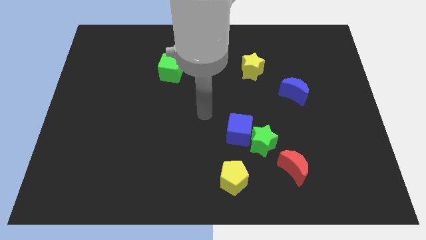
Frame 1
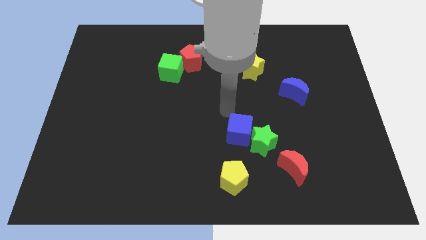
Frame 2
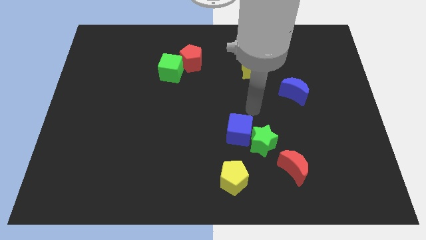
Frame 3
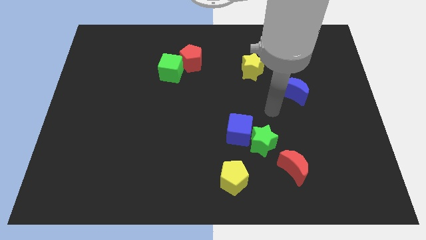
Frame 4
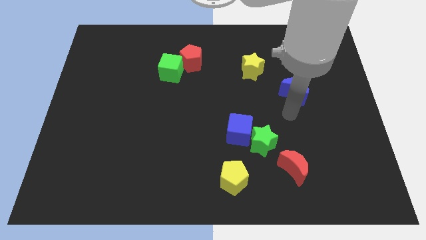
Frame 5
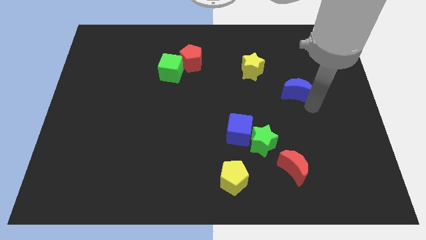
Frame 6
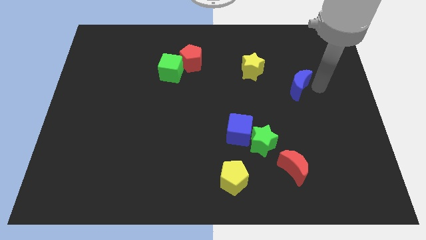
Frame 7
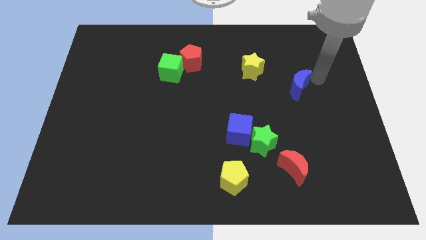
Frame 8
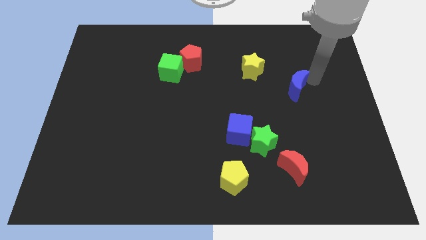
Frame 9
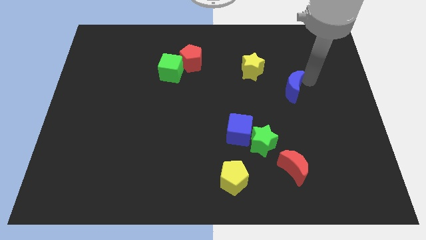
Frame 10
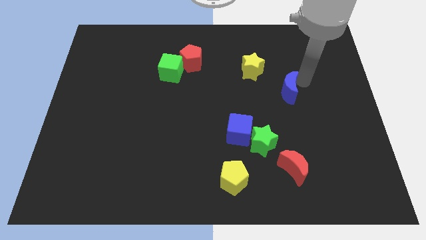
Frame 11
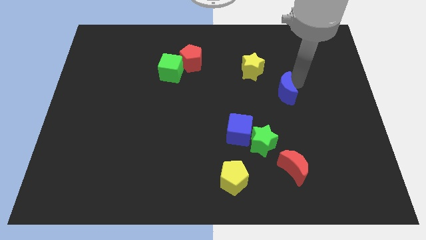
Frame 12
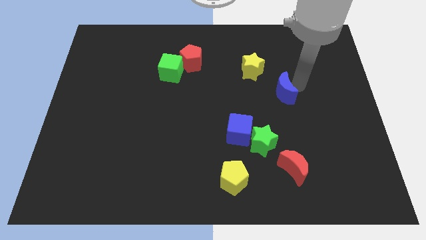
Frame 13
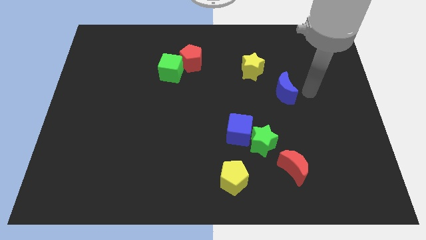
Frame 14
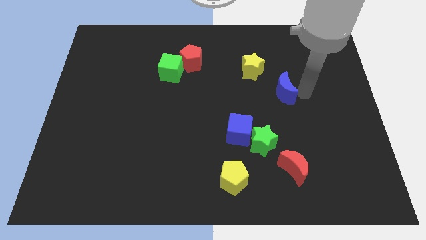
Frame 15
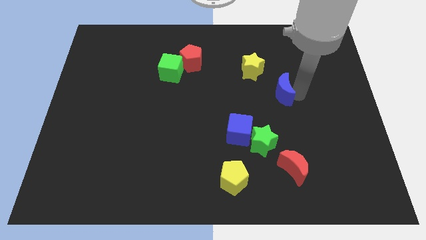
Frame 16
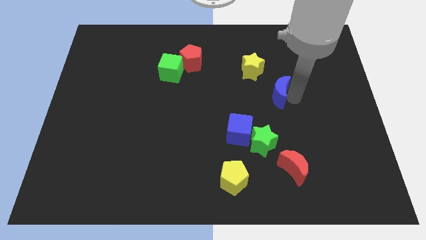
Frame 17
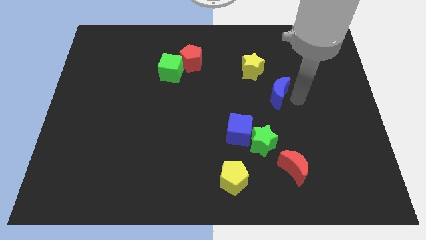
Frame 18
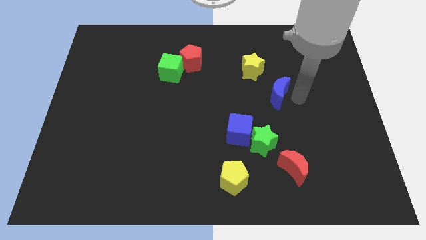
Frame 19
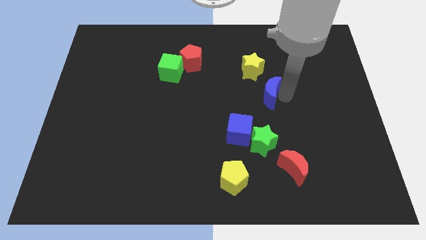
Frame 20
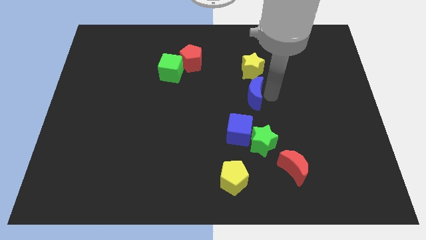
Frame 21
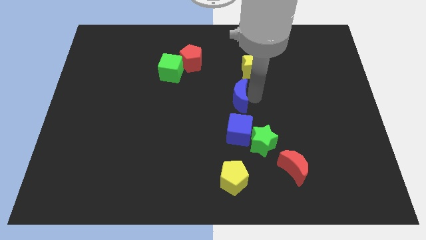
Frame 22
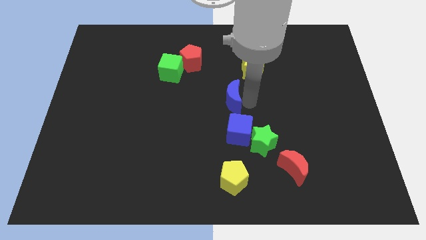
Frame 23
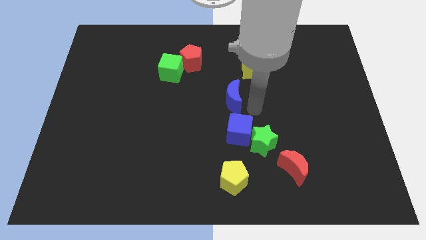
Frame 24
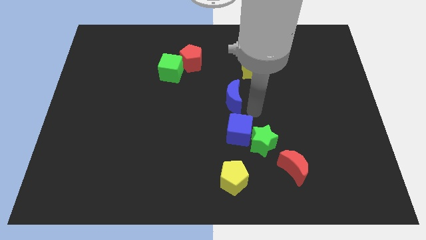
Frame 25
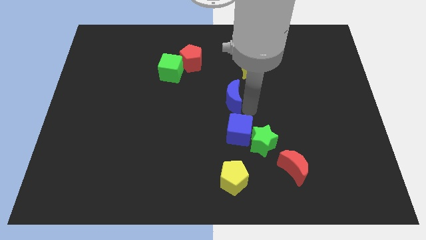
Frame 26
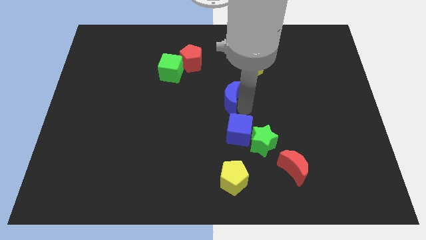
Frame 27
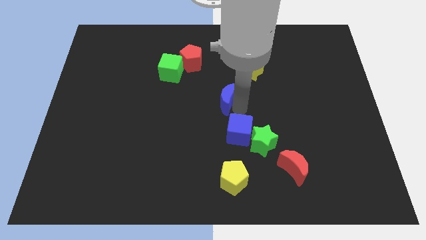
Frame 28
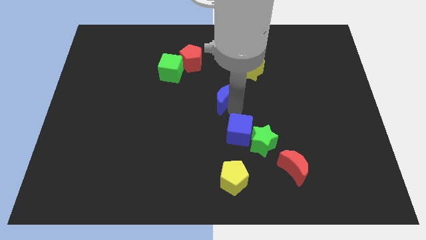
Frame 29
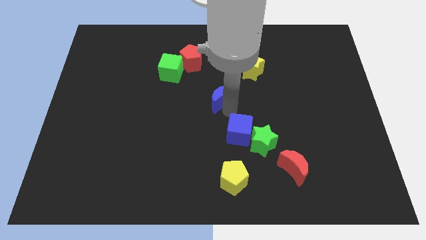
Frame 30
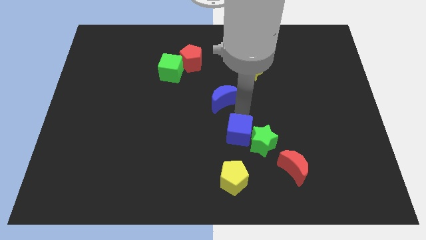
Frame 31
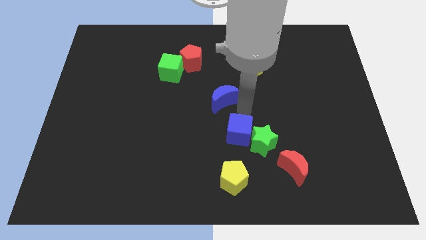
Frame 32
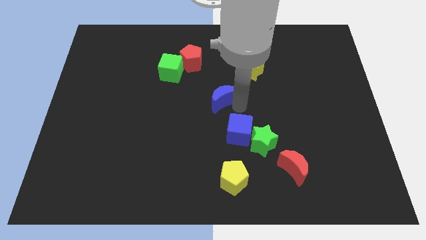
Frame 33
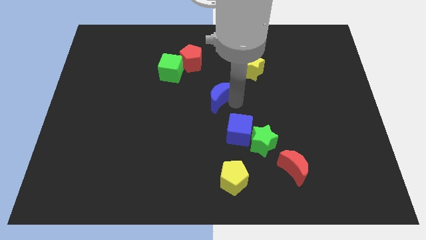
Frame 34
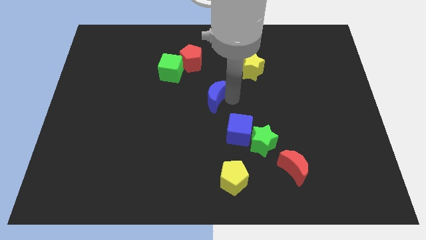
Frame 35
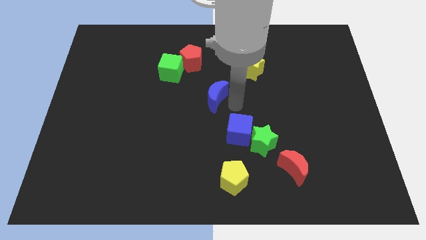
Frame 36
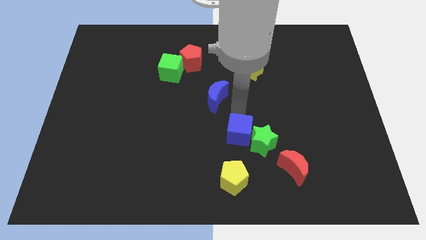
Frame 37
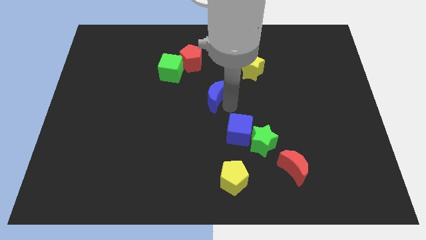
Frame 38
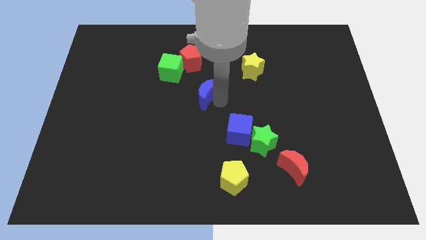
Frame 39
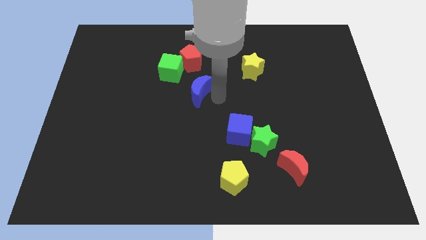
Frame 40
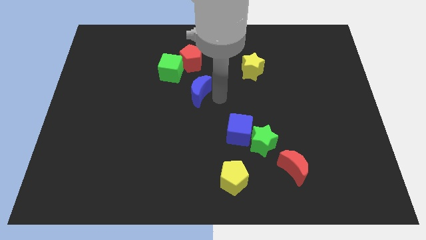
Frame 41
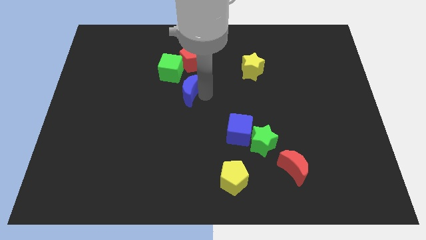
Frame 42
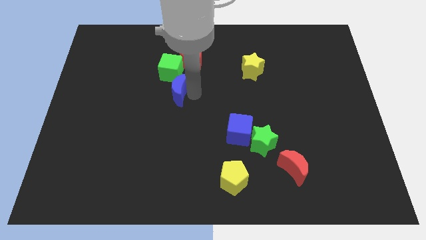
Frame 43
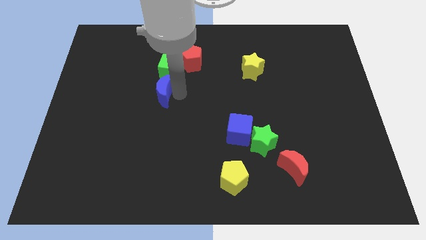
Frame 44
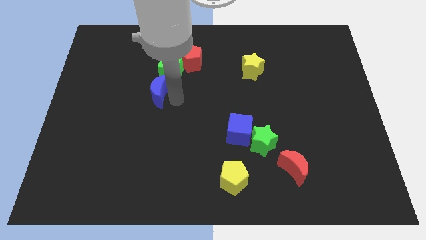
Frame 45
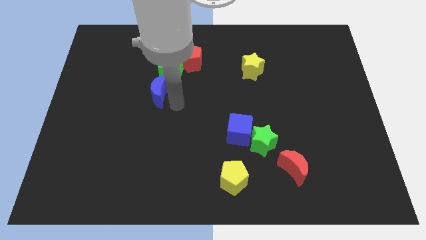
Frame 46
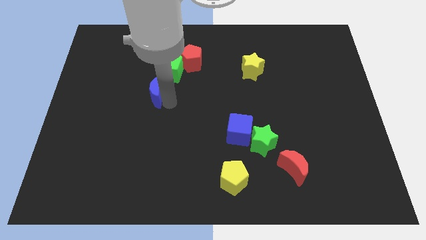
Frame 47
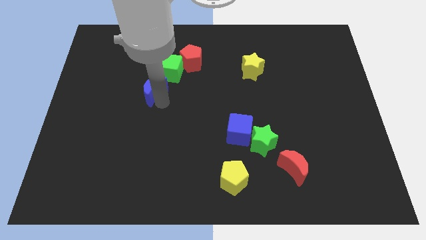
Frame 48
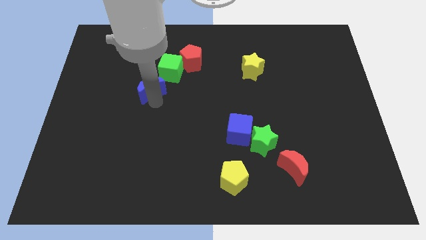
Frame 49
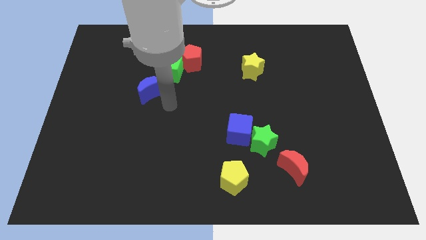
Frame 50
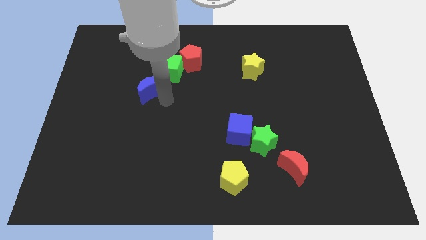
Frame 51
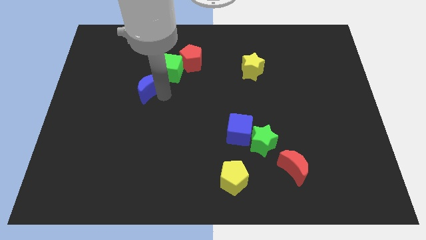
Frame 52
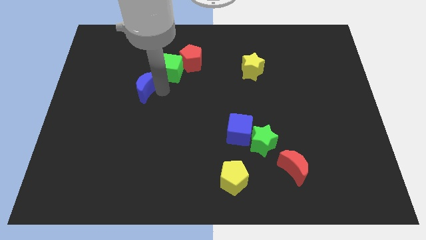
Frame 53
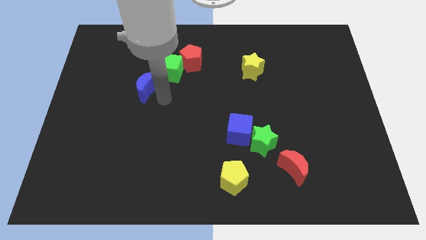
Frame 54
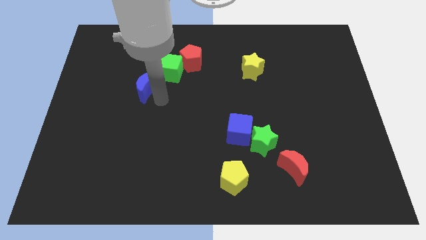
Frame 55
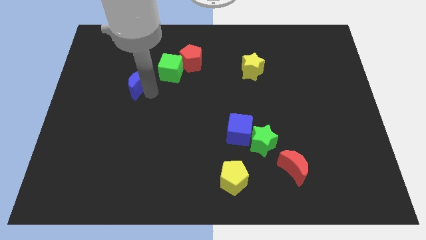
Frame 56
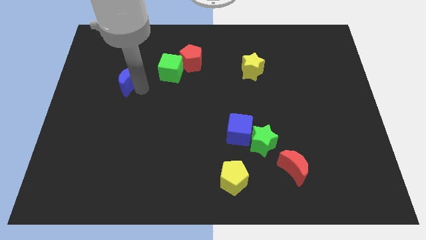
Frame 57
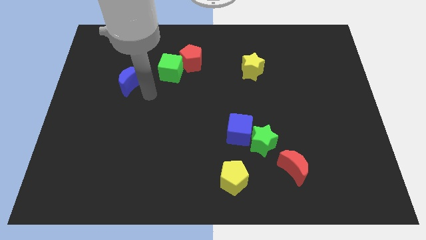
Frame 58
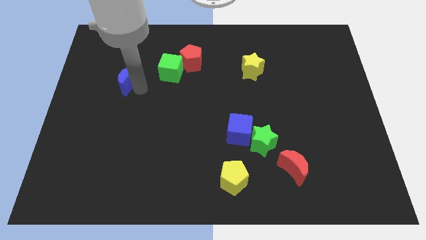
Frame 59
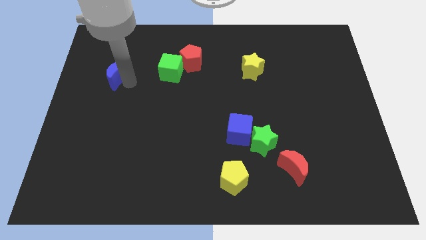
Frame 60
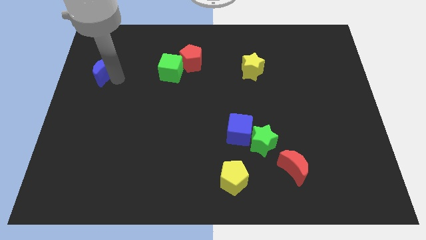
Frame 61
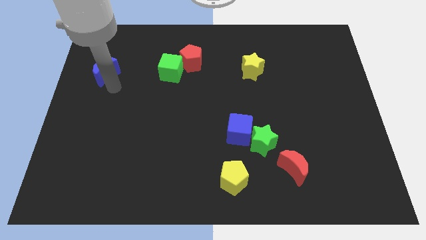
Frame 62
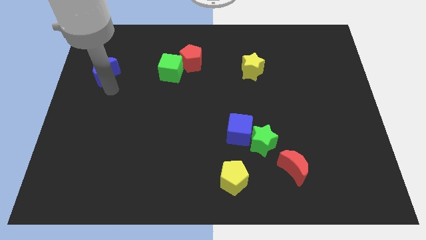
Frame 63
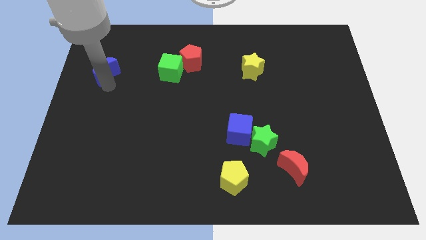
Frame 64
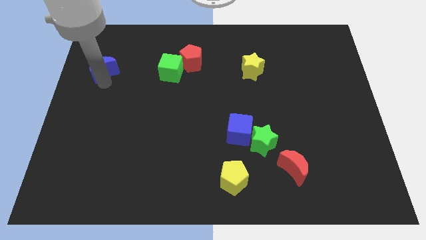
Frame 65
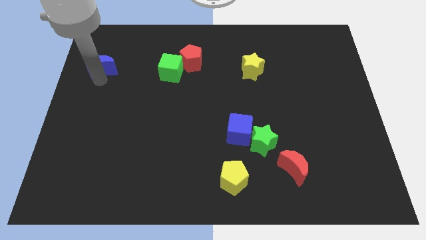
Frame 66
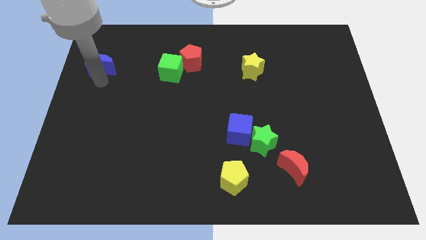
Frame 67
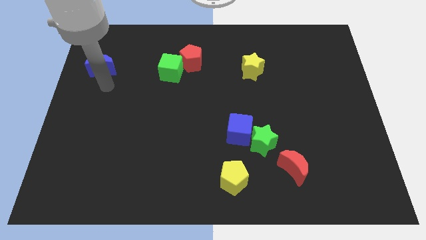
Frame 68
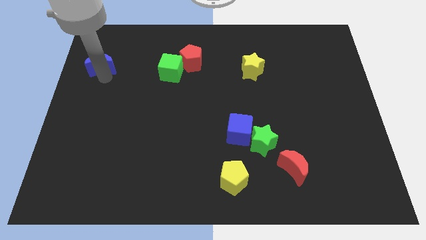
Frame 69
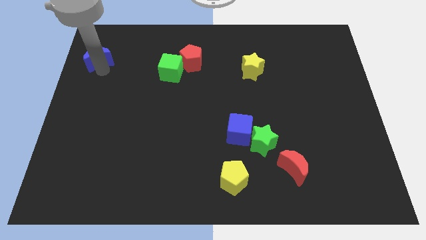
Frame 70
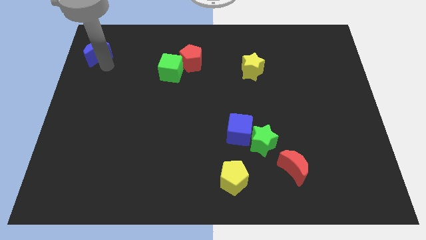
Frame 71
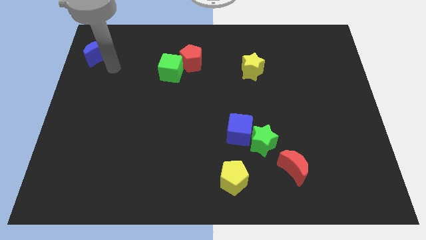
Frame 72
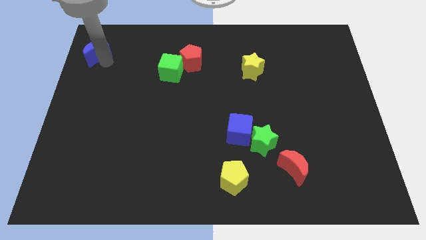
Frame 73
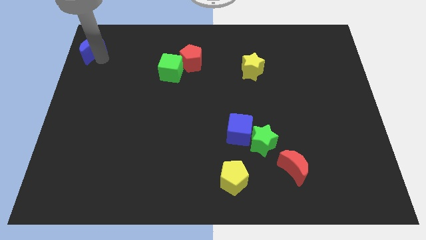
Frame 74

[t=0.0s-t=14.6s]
move the blue moon to the top left
